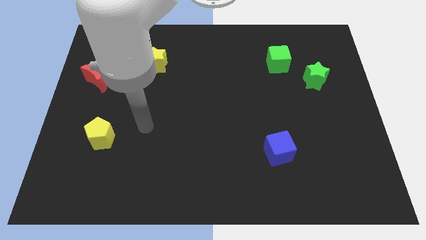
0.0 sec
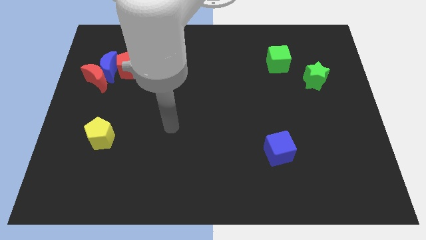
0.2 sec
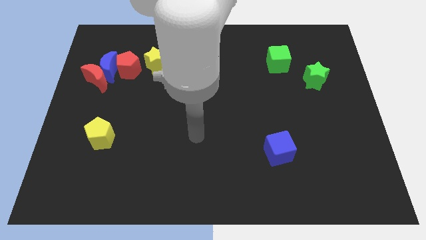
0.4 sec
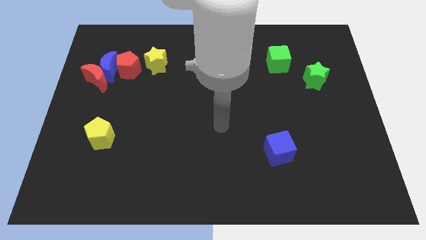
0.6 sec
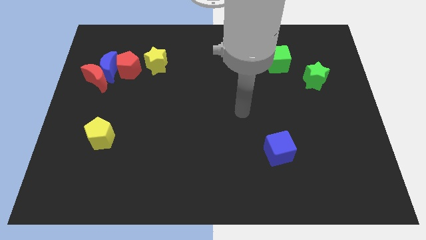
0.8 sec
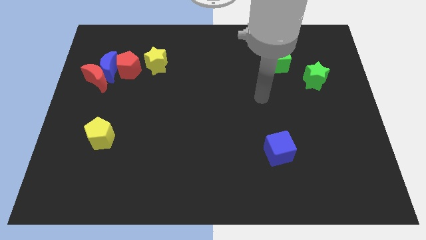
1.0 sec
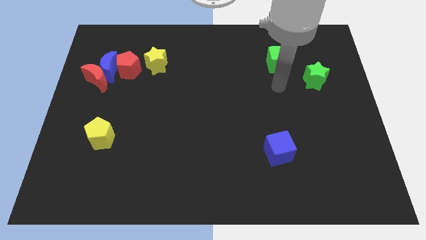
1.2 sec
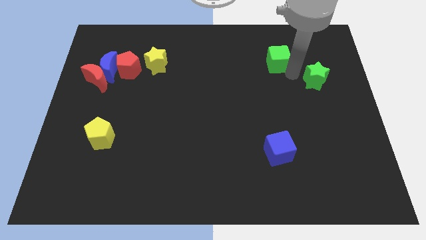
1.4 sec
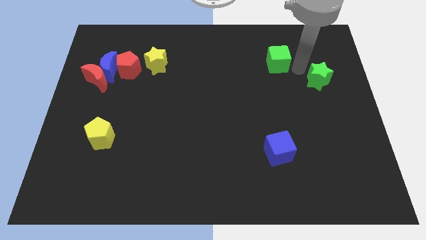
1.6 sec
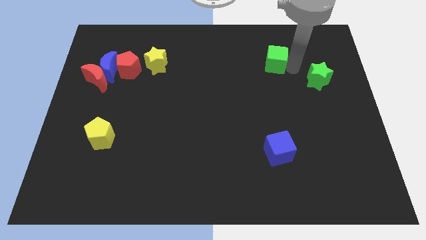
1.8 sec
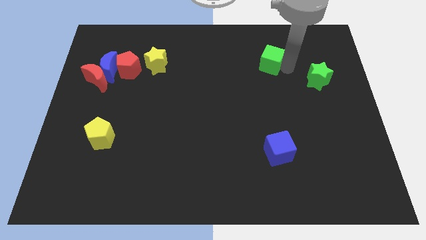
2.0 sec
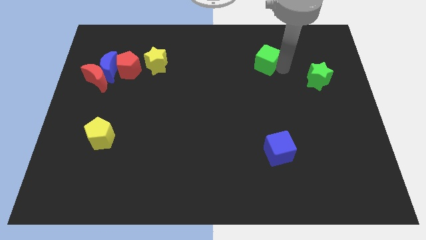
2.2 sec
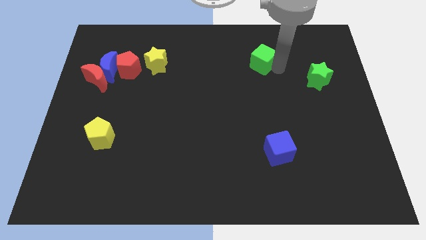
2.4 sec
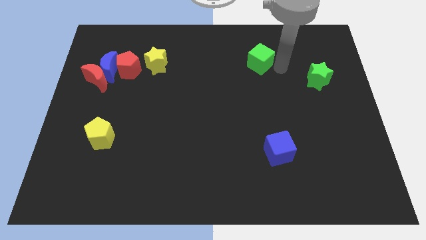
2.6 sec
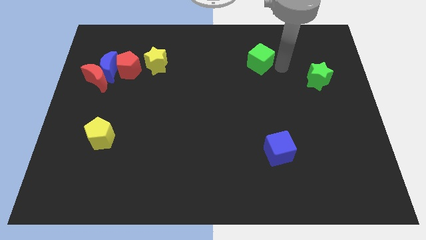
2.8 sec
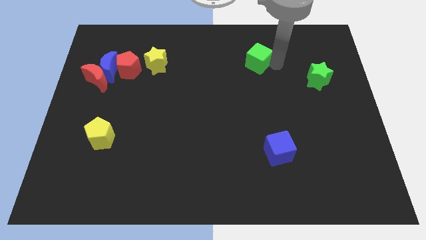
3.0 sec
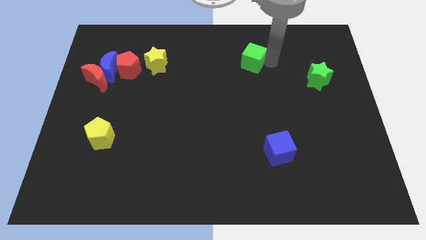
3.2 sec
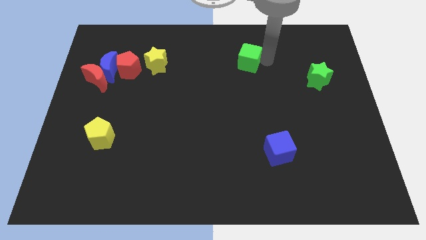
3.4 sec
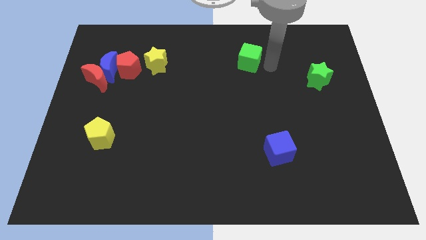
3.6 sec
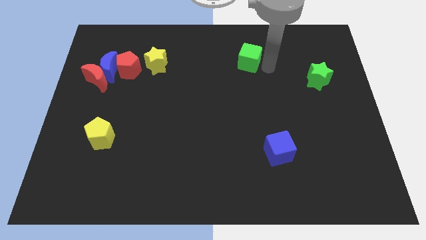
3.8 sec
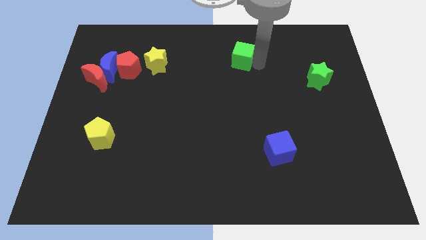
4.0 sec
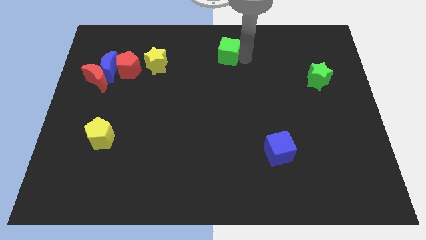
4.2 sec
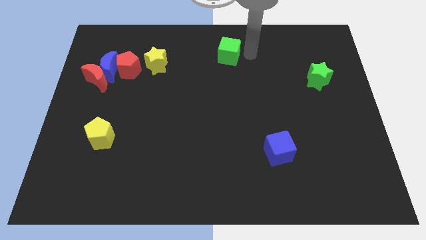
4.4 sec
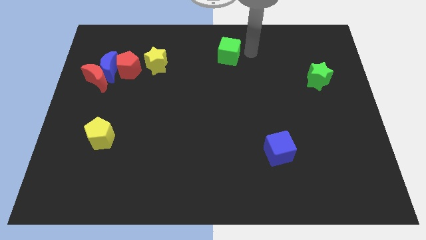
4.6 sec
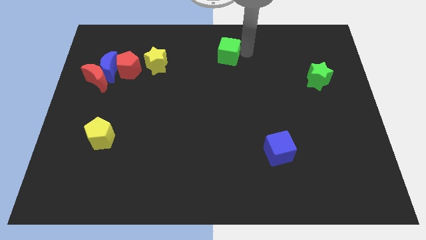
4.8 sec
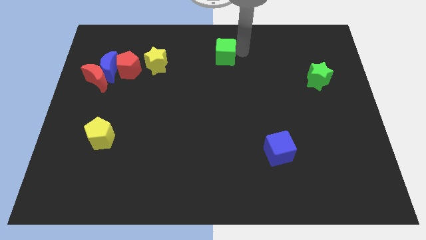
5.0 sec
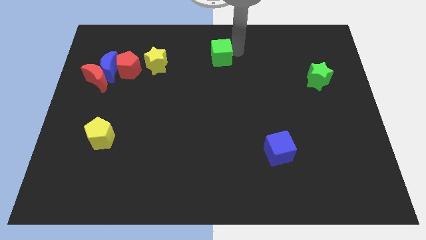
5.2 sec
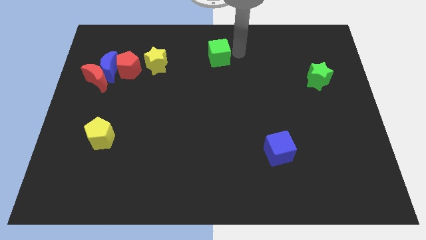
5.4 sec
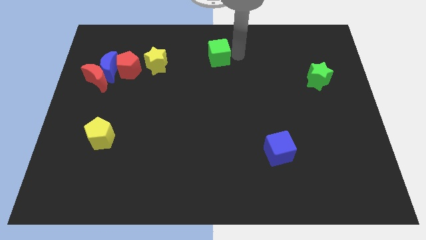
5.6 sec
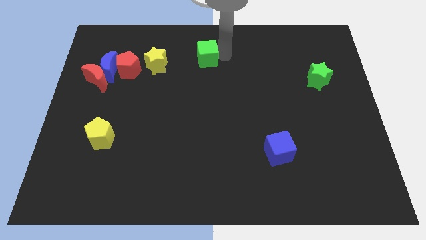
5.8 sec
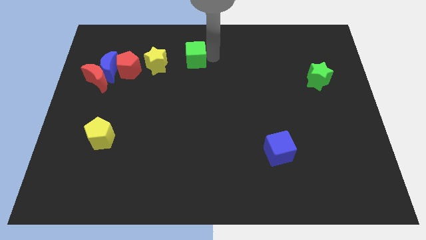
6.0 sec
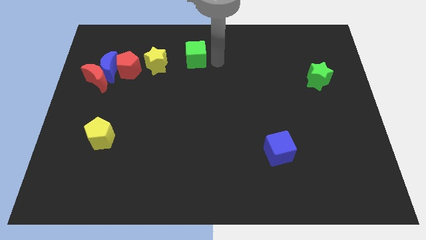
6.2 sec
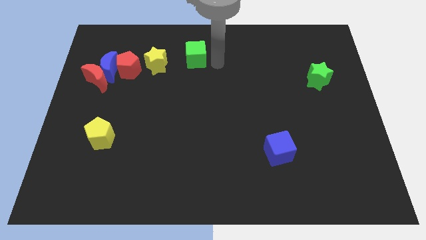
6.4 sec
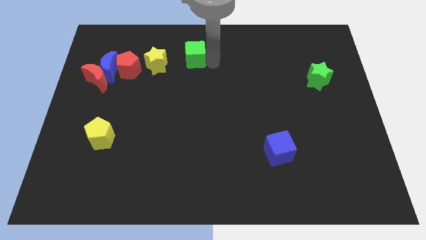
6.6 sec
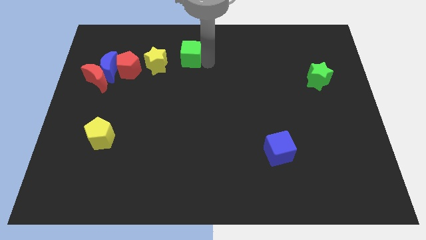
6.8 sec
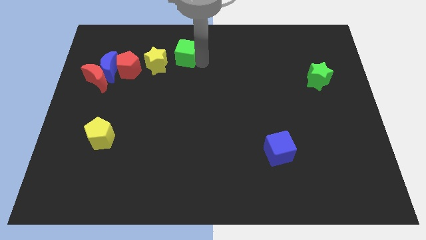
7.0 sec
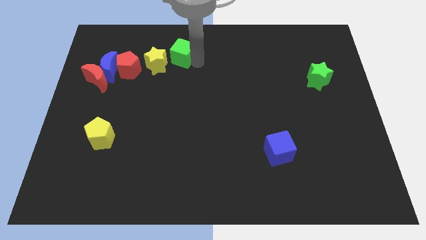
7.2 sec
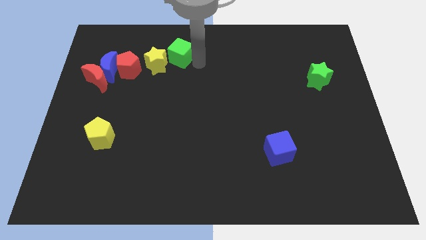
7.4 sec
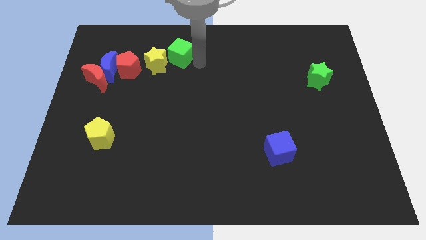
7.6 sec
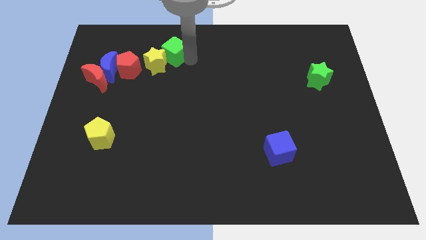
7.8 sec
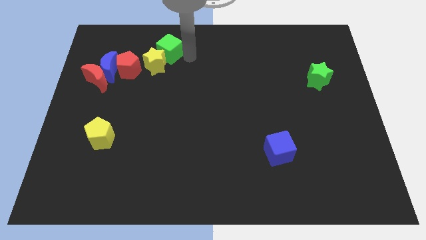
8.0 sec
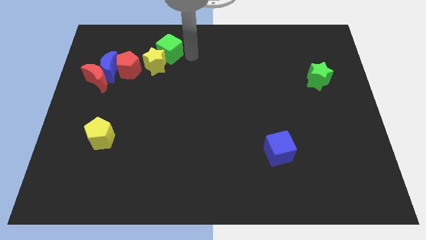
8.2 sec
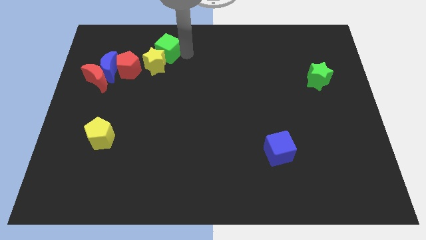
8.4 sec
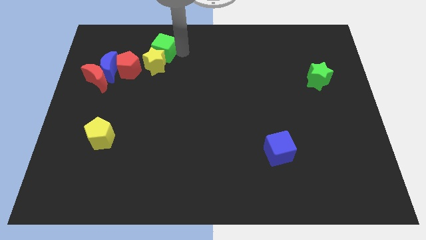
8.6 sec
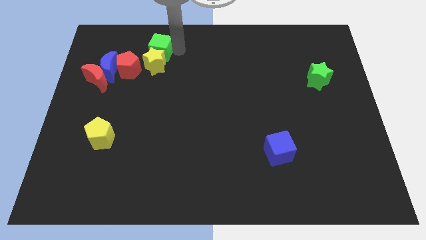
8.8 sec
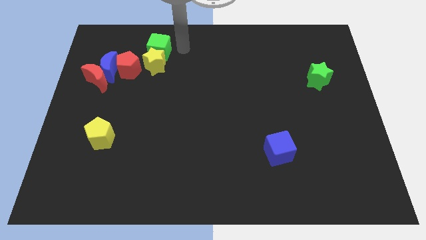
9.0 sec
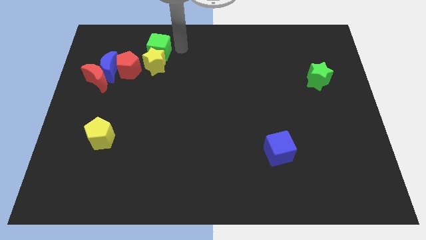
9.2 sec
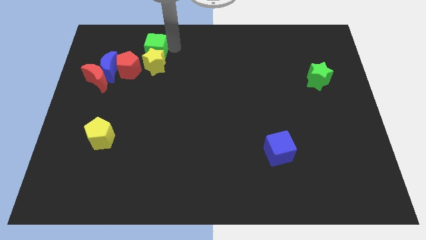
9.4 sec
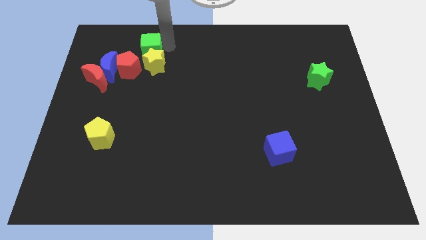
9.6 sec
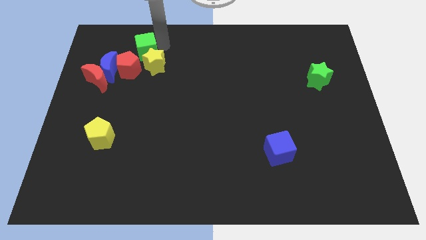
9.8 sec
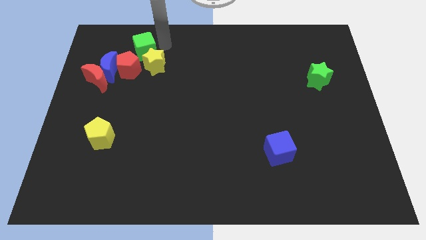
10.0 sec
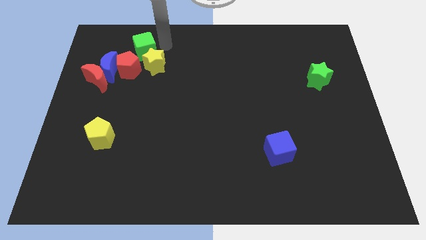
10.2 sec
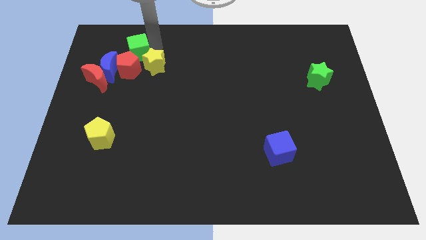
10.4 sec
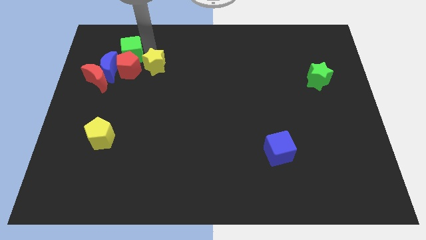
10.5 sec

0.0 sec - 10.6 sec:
move the green cube to the left side of the yellow star

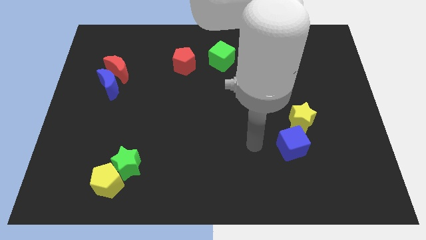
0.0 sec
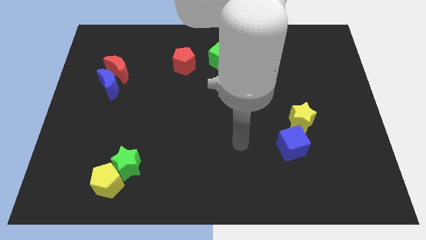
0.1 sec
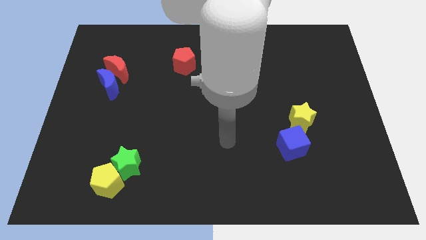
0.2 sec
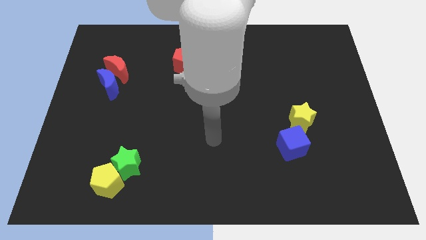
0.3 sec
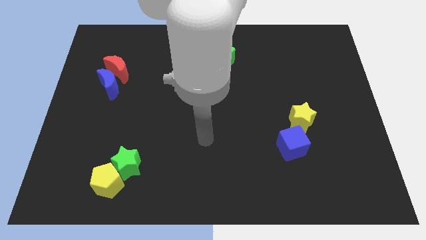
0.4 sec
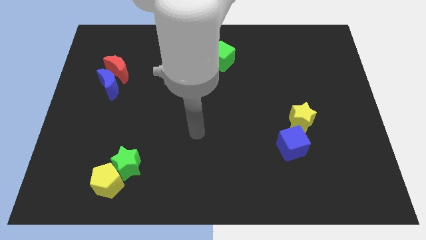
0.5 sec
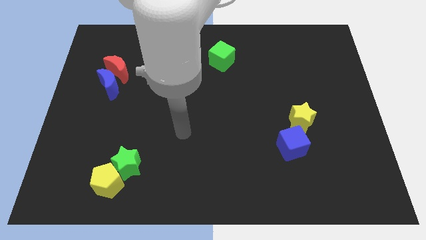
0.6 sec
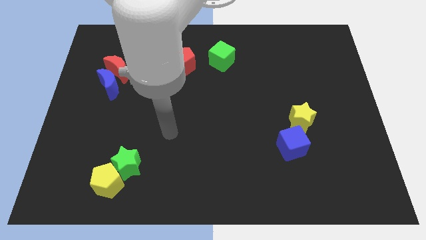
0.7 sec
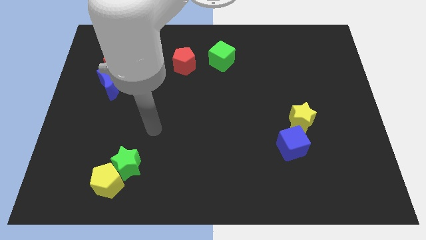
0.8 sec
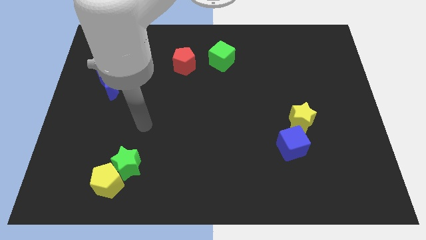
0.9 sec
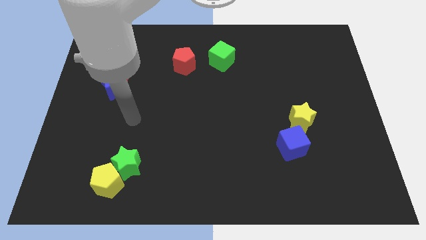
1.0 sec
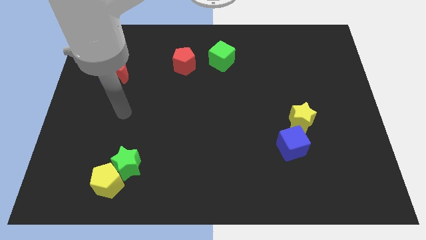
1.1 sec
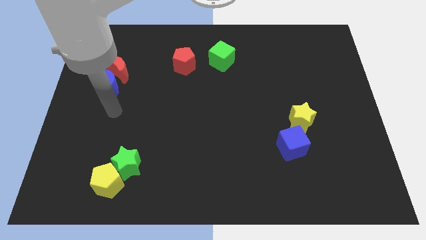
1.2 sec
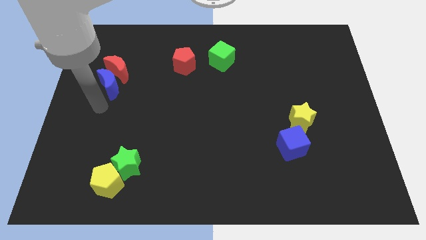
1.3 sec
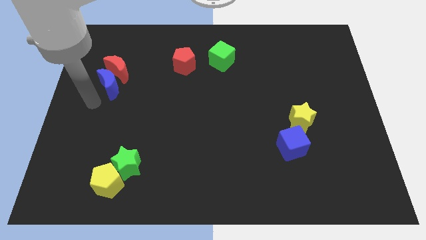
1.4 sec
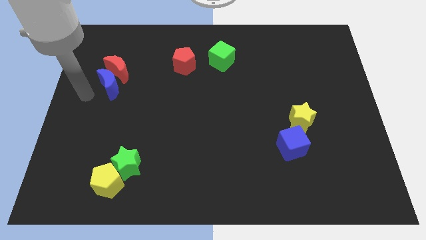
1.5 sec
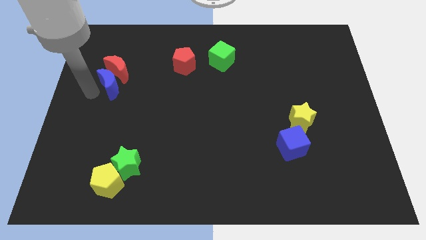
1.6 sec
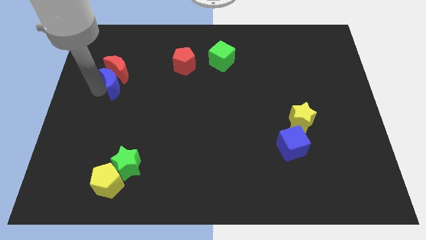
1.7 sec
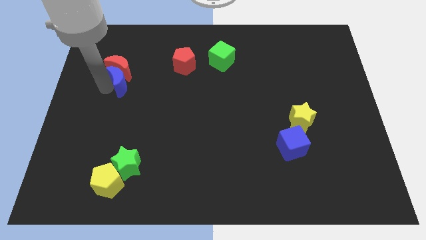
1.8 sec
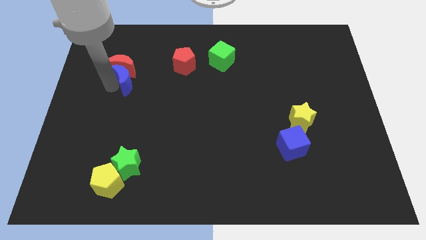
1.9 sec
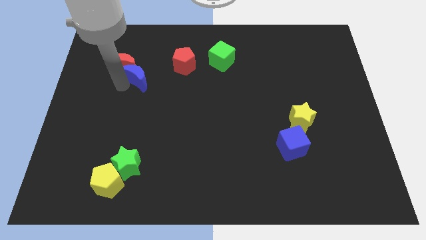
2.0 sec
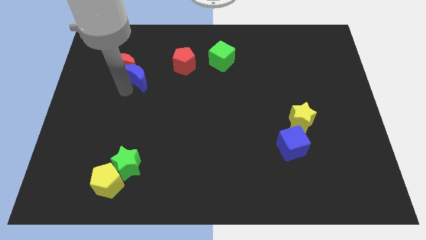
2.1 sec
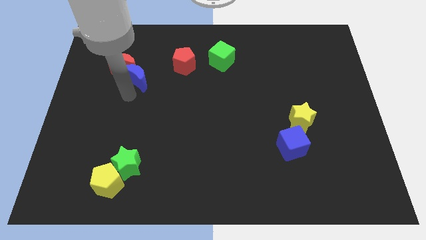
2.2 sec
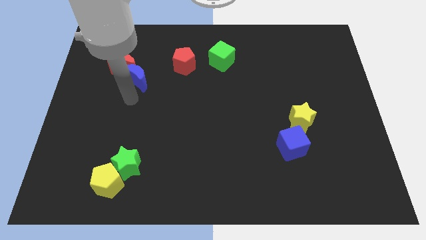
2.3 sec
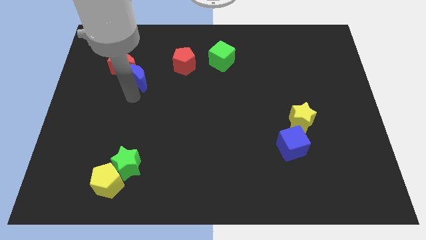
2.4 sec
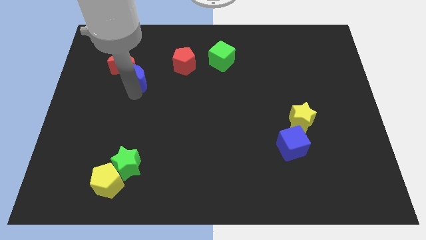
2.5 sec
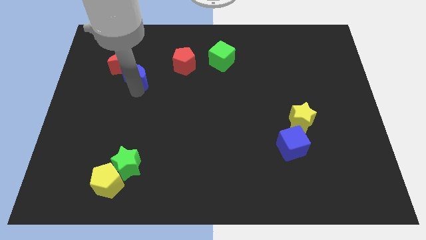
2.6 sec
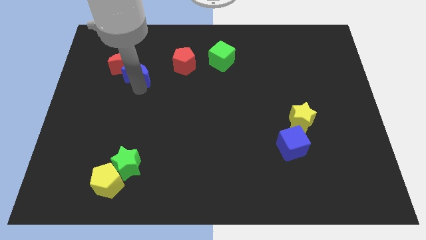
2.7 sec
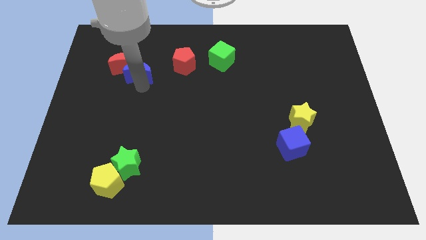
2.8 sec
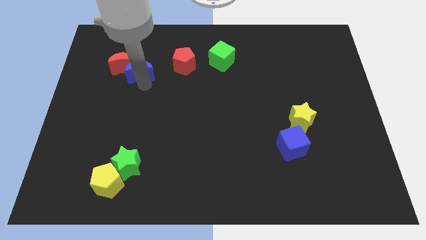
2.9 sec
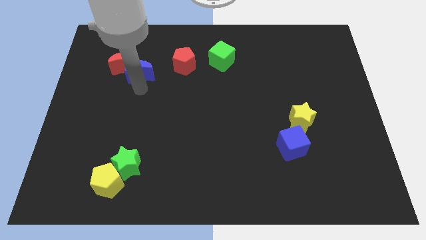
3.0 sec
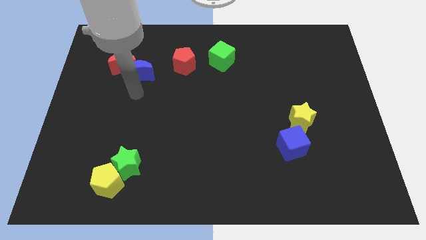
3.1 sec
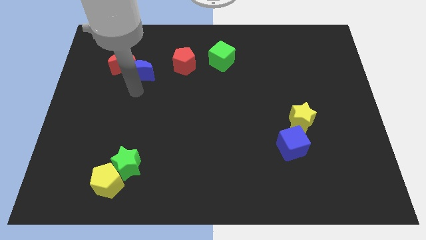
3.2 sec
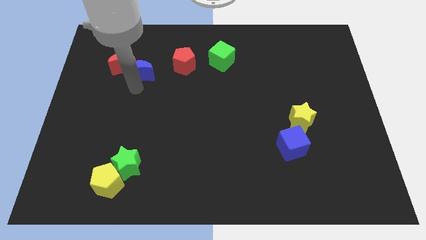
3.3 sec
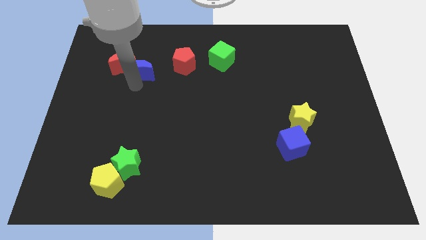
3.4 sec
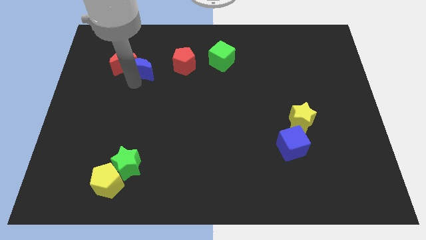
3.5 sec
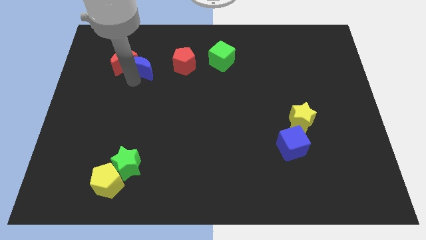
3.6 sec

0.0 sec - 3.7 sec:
move the blue moon to the top right side of the red moon
